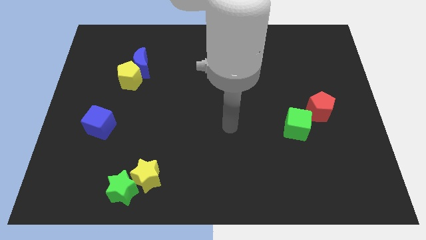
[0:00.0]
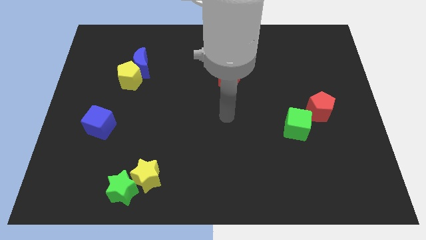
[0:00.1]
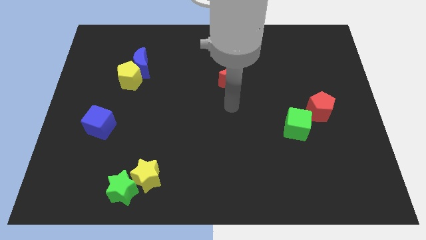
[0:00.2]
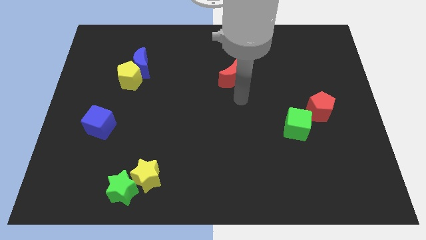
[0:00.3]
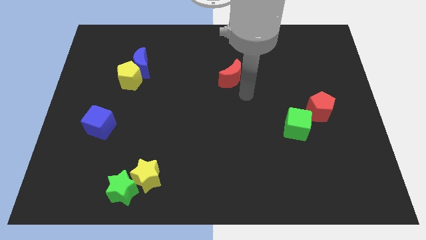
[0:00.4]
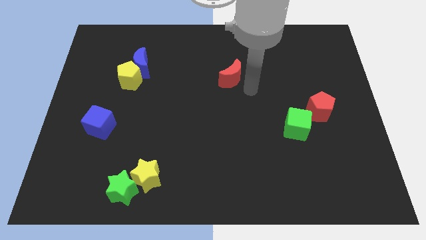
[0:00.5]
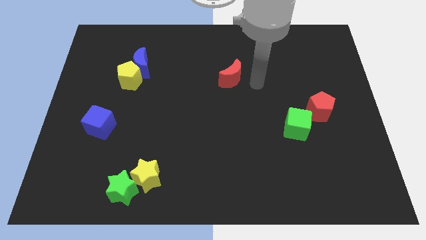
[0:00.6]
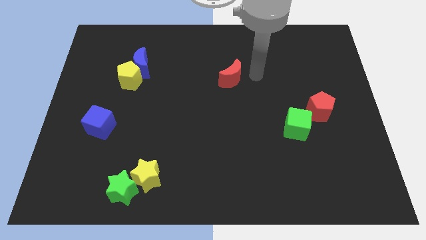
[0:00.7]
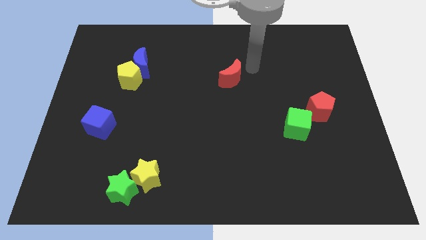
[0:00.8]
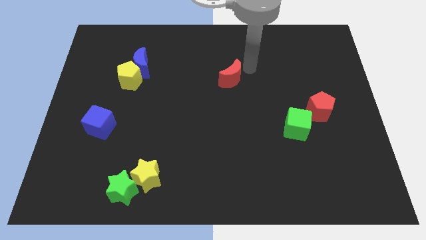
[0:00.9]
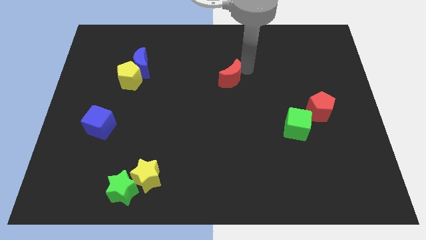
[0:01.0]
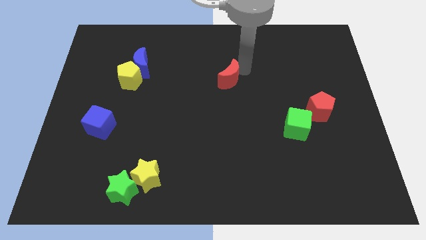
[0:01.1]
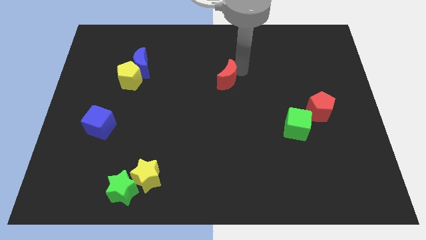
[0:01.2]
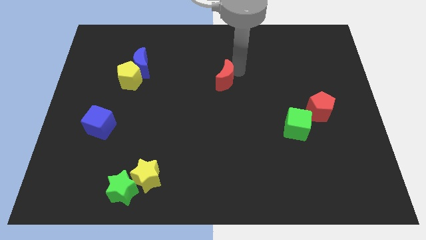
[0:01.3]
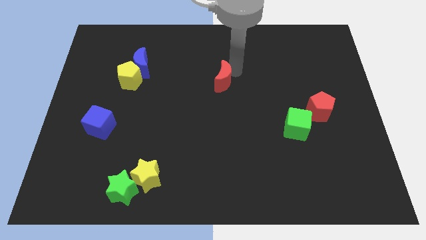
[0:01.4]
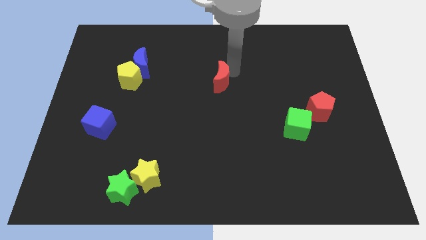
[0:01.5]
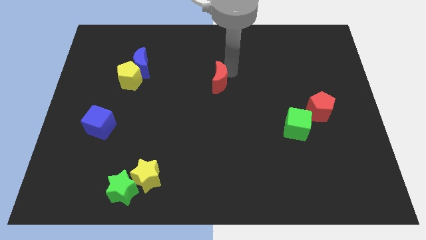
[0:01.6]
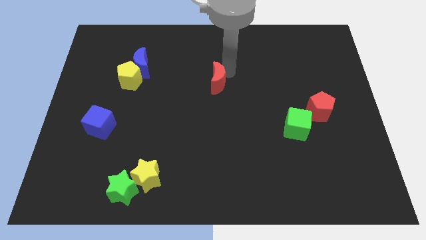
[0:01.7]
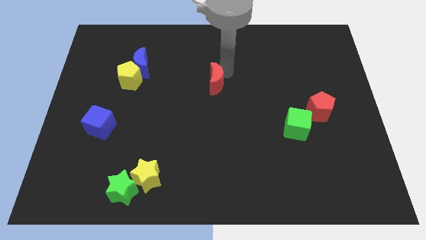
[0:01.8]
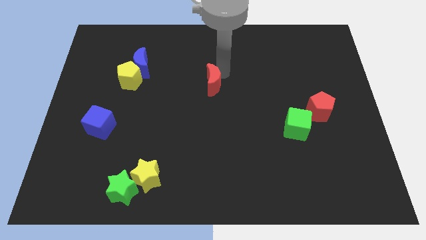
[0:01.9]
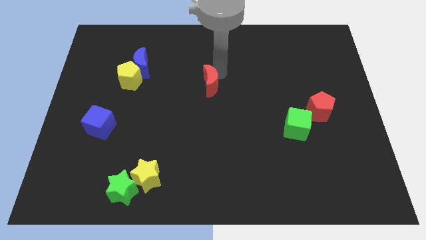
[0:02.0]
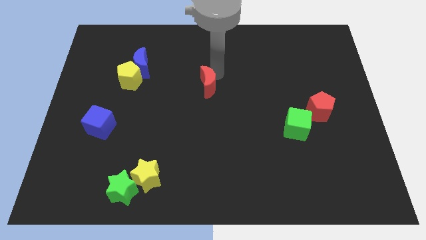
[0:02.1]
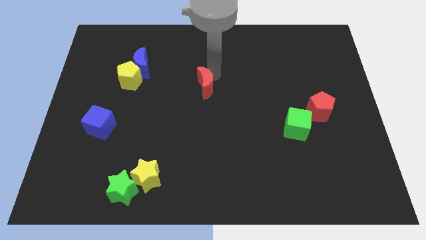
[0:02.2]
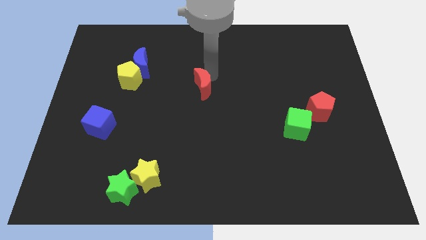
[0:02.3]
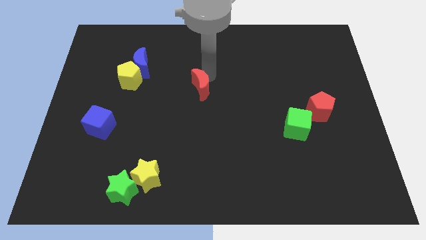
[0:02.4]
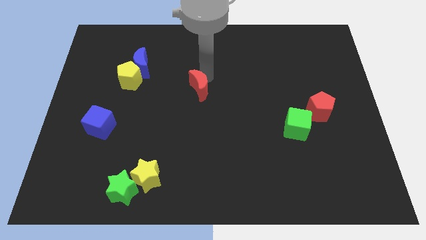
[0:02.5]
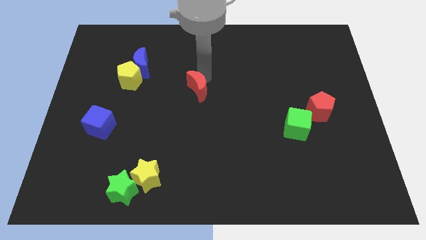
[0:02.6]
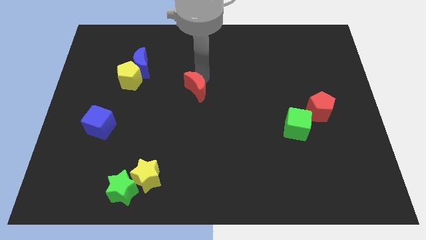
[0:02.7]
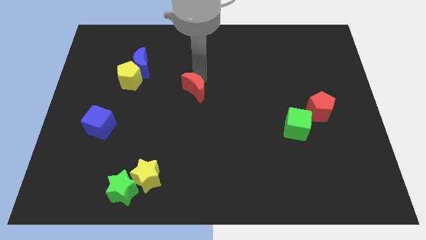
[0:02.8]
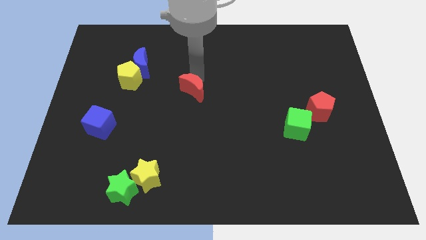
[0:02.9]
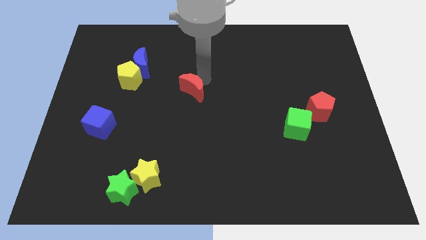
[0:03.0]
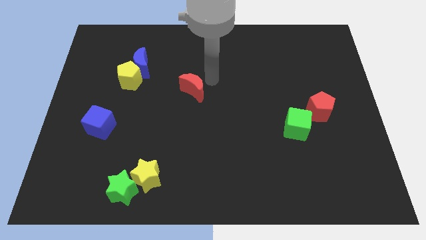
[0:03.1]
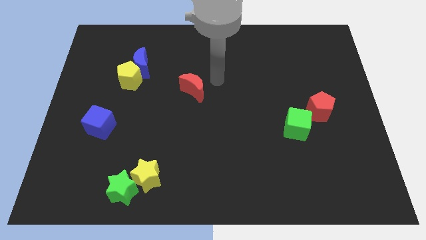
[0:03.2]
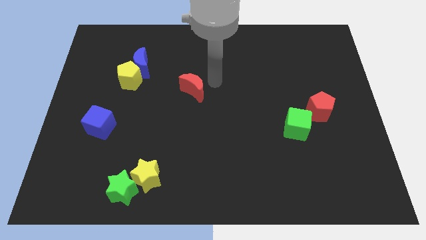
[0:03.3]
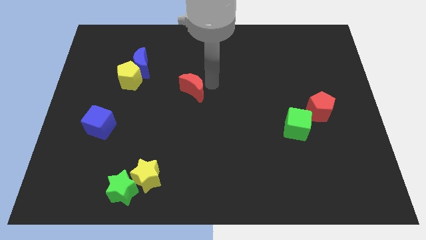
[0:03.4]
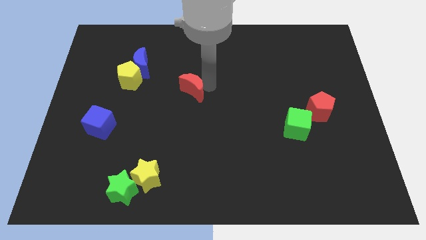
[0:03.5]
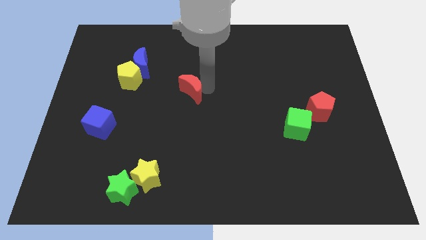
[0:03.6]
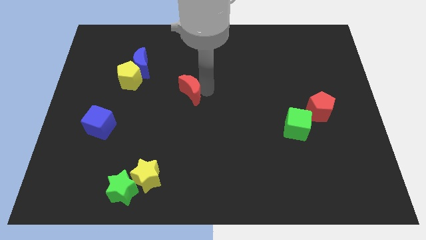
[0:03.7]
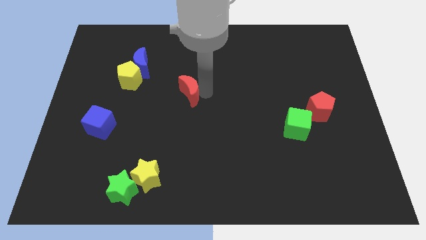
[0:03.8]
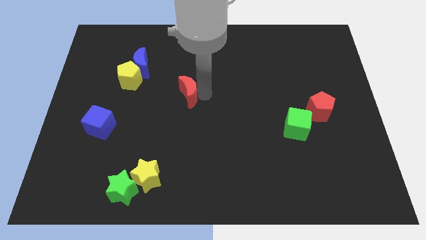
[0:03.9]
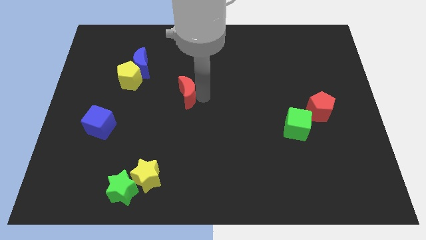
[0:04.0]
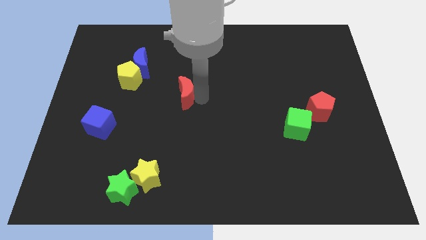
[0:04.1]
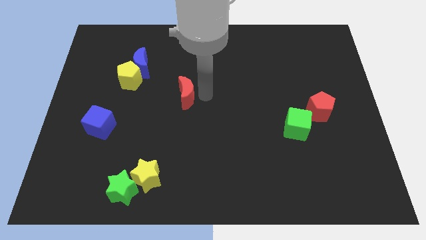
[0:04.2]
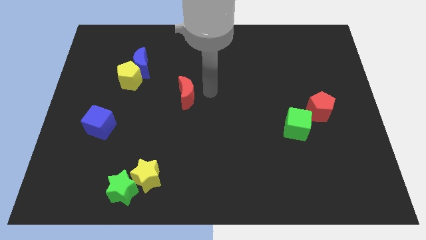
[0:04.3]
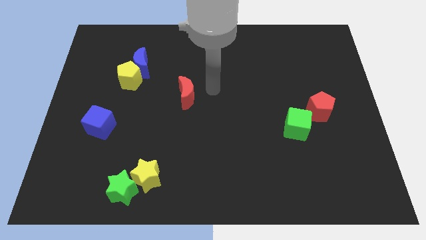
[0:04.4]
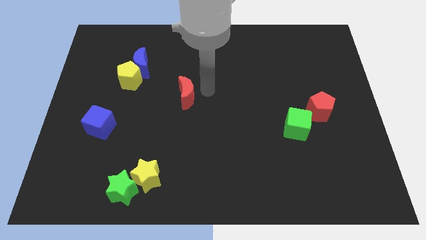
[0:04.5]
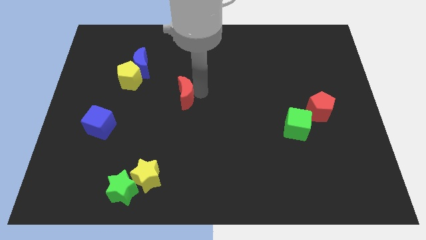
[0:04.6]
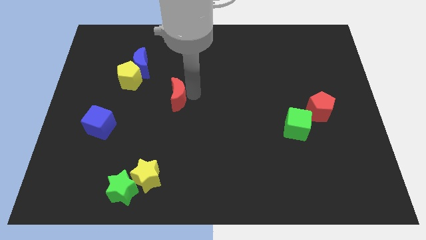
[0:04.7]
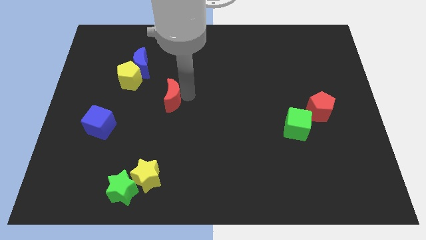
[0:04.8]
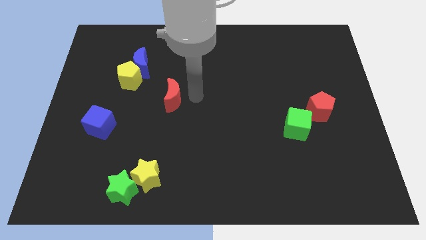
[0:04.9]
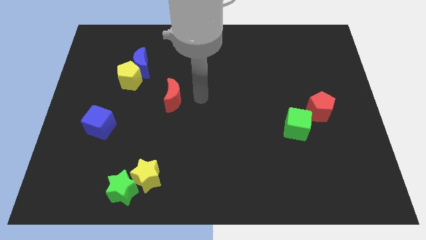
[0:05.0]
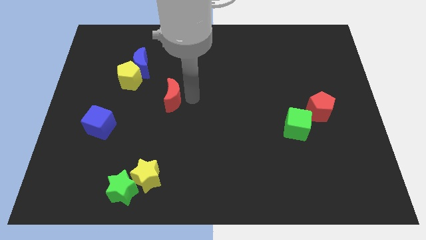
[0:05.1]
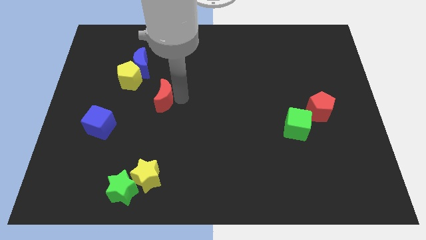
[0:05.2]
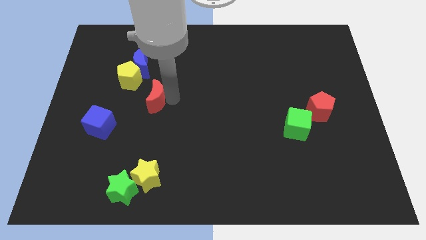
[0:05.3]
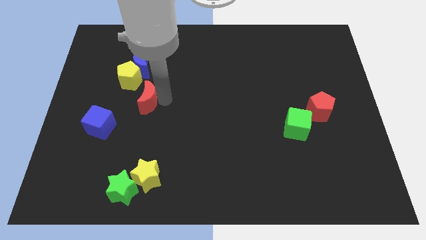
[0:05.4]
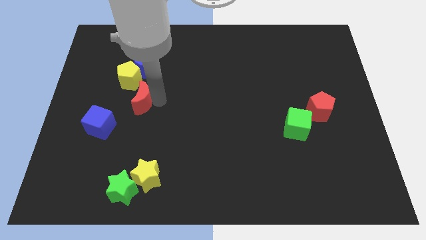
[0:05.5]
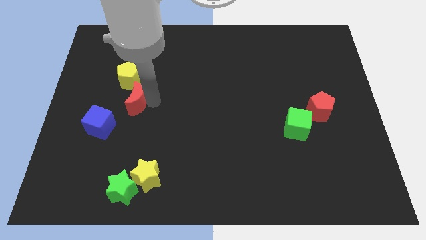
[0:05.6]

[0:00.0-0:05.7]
move the red moon to the left

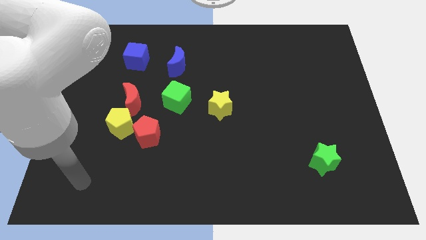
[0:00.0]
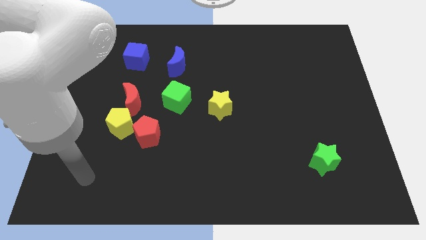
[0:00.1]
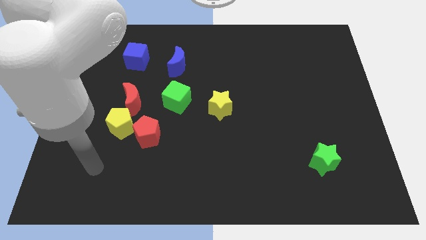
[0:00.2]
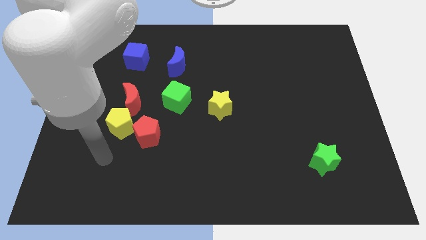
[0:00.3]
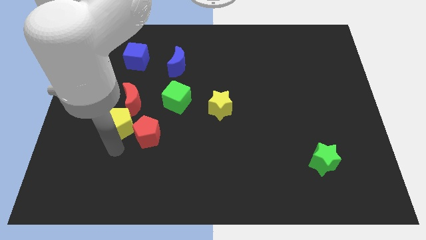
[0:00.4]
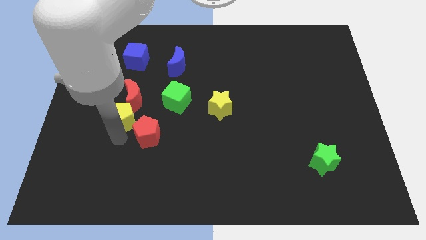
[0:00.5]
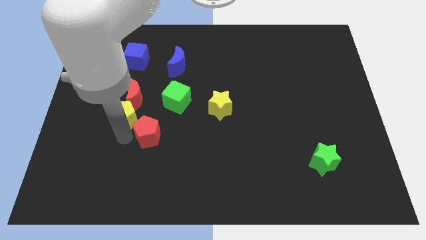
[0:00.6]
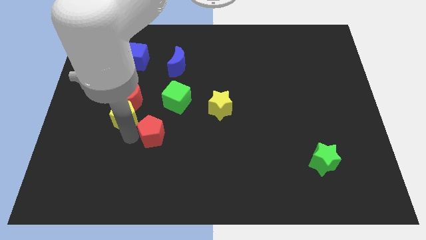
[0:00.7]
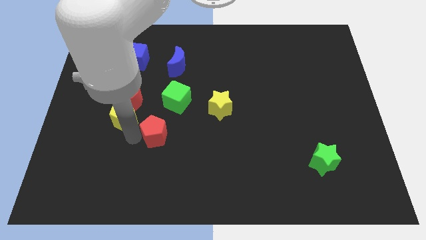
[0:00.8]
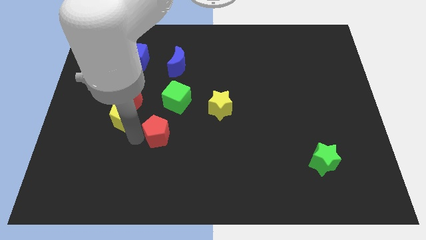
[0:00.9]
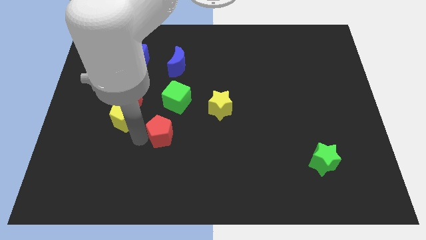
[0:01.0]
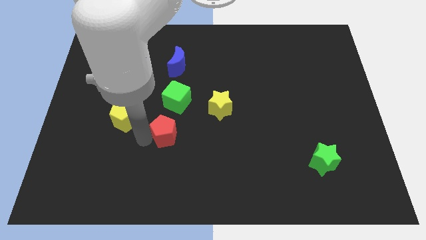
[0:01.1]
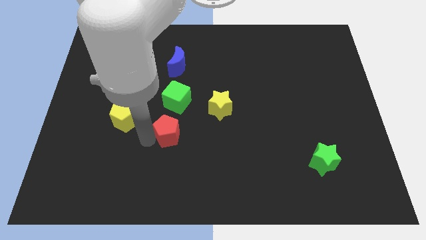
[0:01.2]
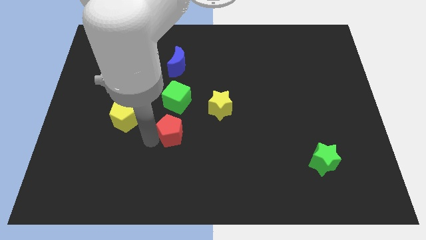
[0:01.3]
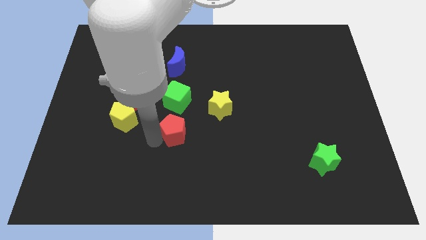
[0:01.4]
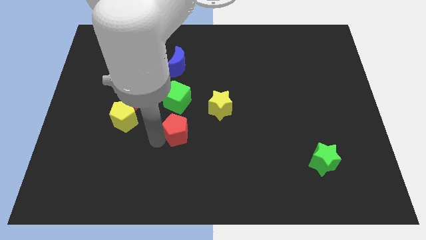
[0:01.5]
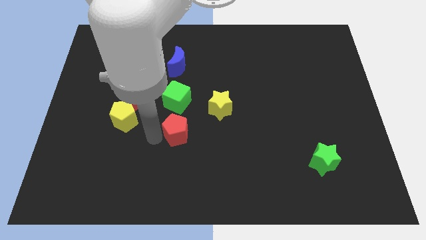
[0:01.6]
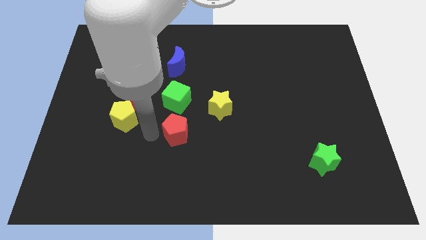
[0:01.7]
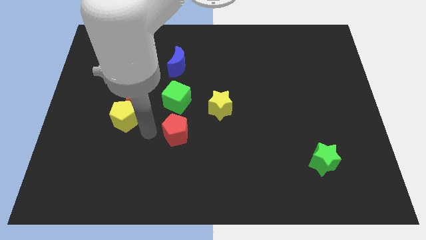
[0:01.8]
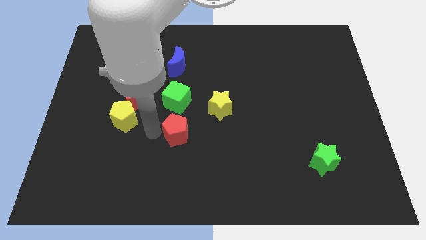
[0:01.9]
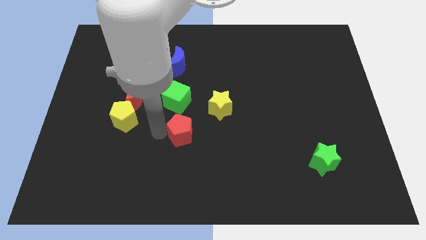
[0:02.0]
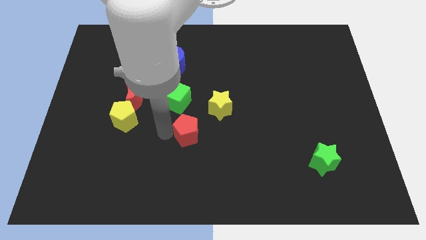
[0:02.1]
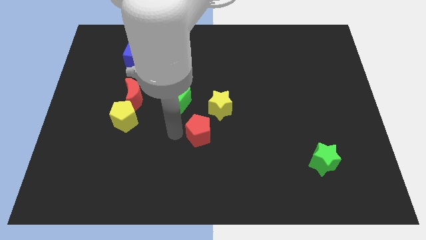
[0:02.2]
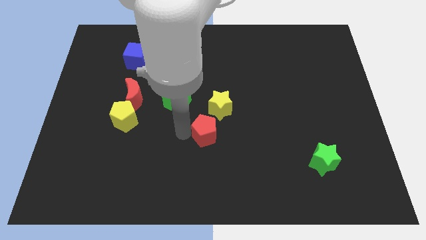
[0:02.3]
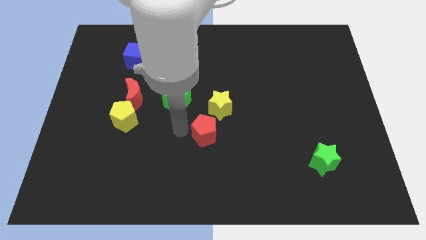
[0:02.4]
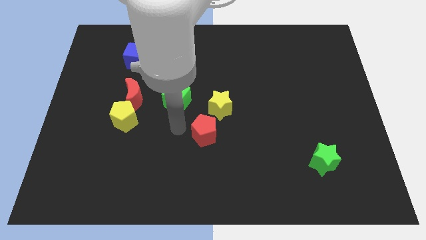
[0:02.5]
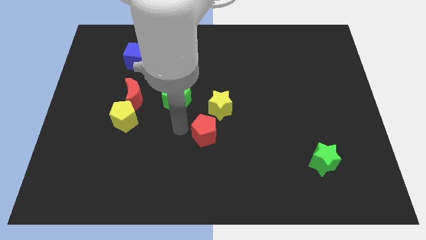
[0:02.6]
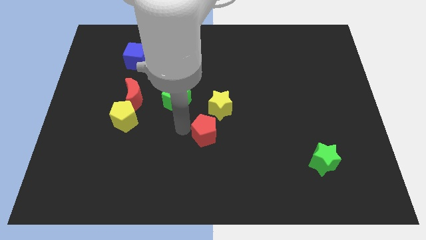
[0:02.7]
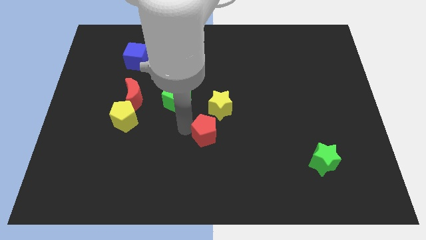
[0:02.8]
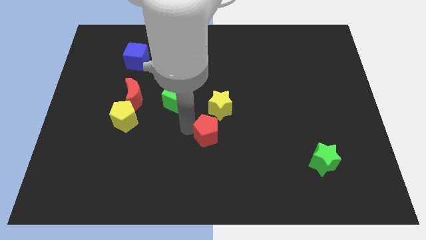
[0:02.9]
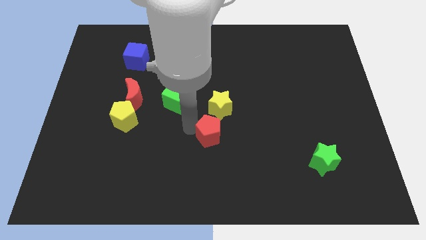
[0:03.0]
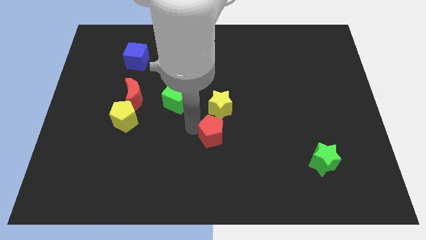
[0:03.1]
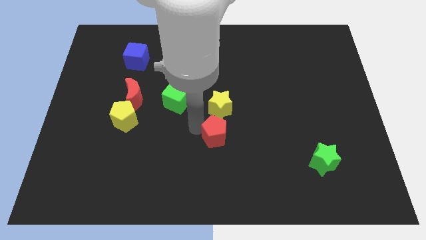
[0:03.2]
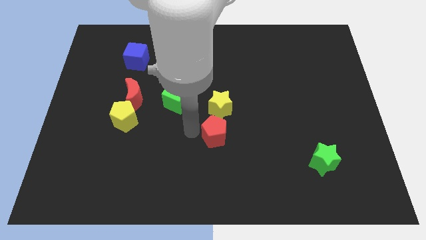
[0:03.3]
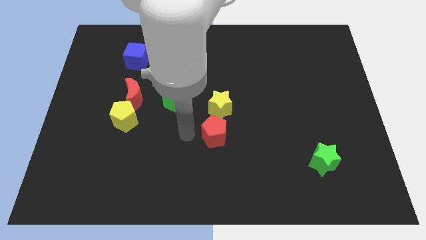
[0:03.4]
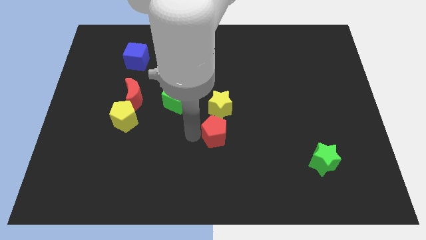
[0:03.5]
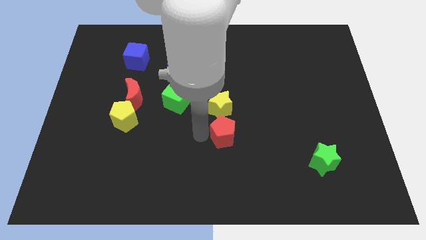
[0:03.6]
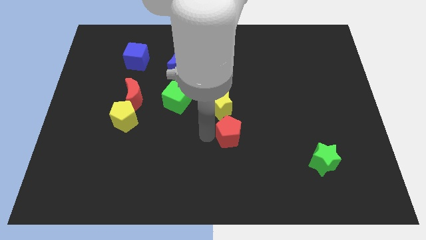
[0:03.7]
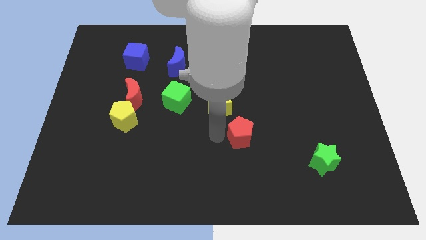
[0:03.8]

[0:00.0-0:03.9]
push the red pentagon right
